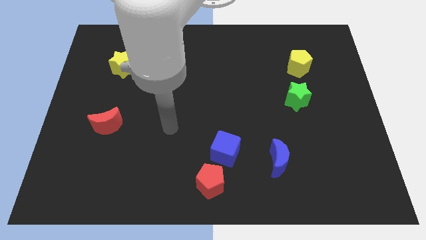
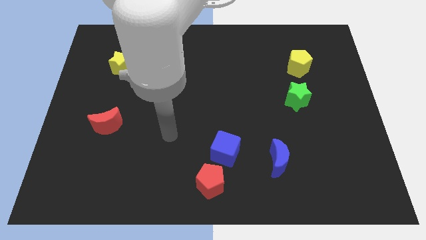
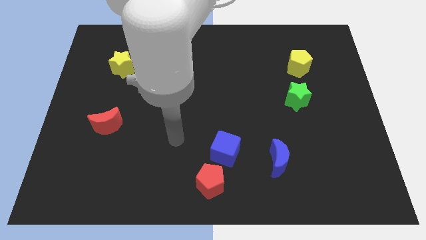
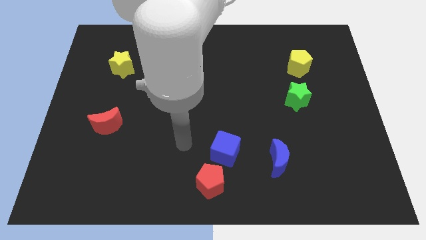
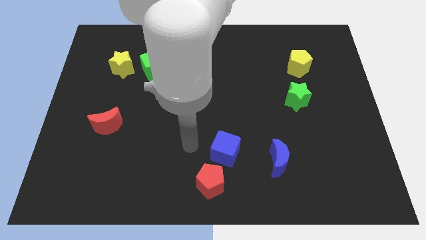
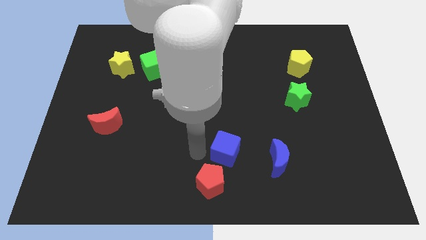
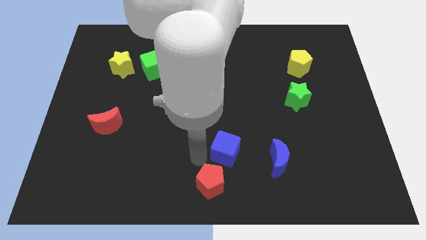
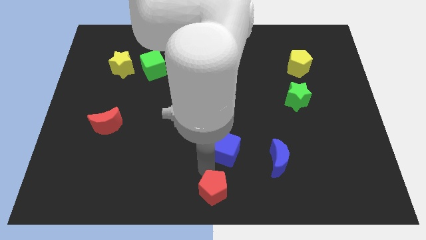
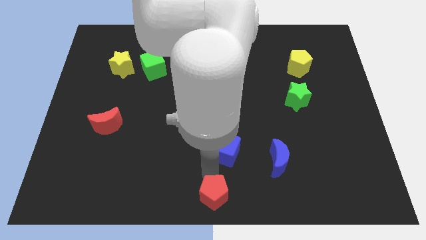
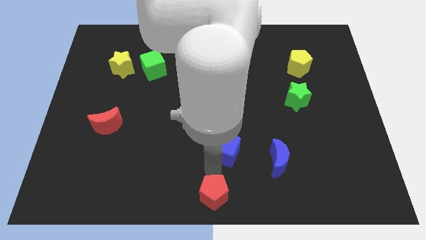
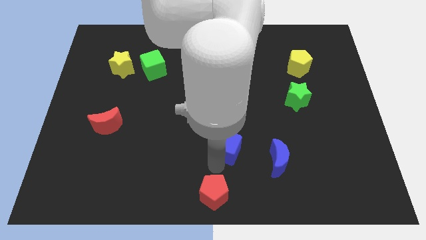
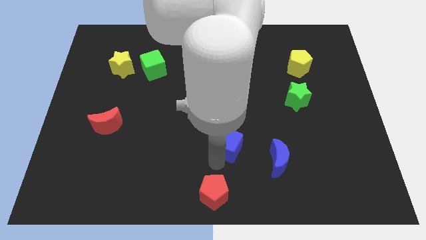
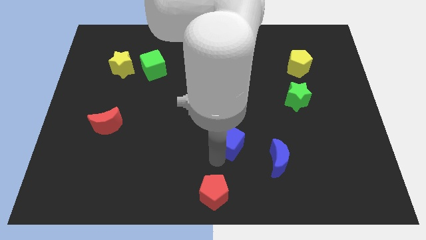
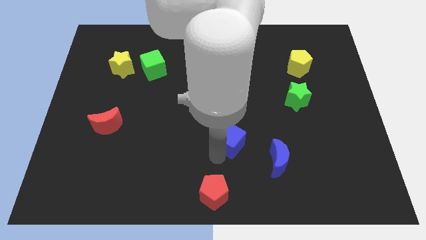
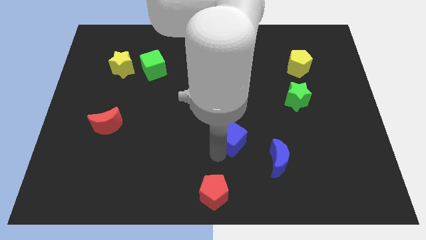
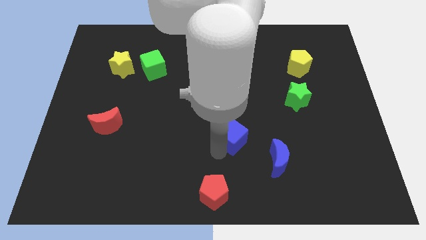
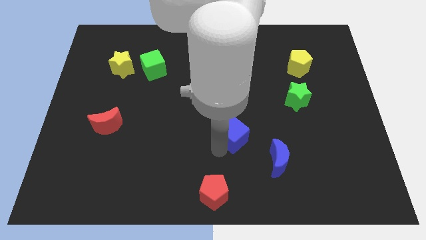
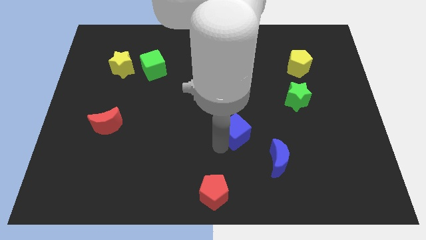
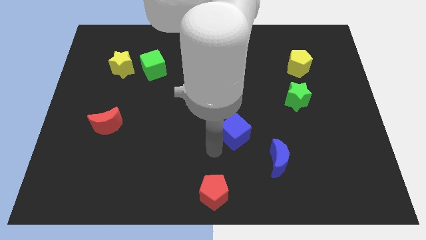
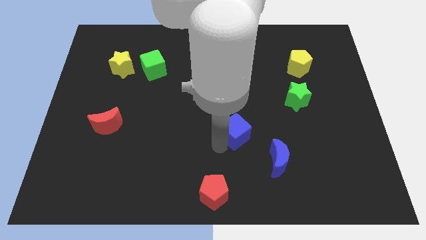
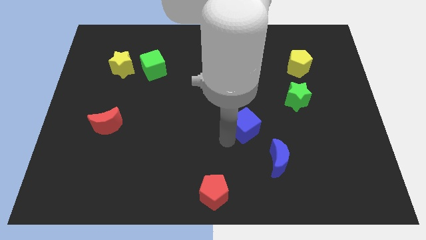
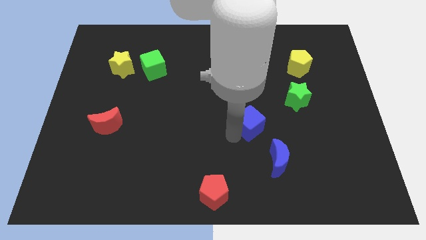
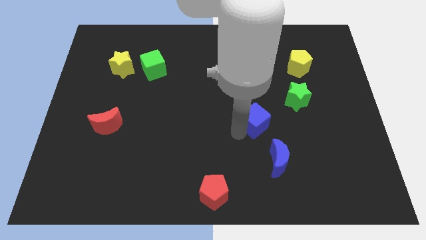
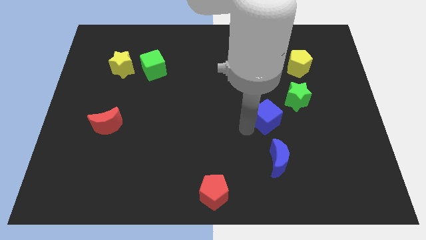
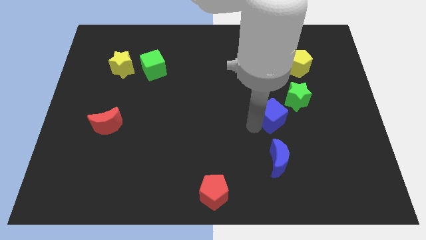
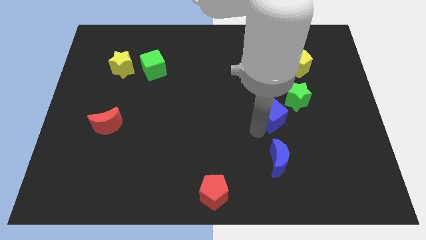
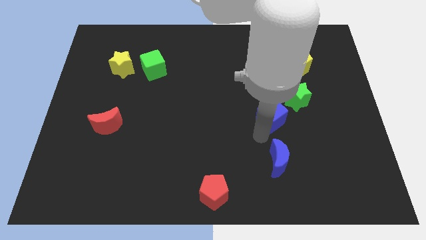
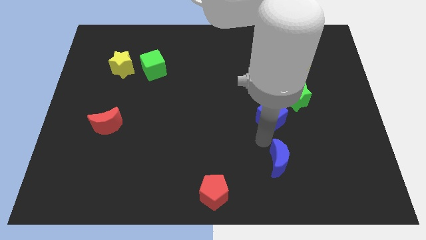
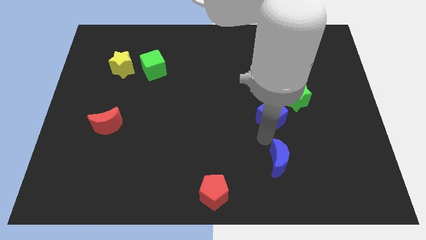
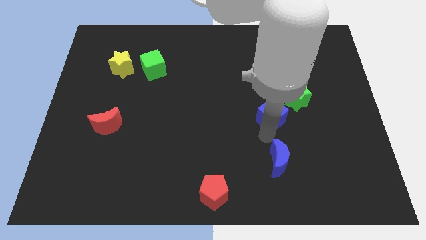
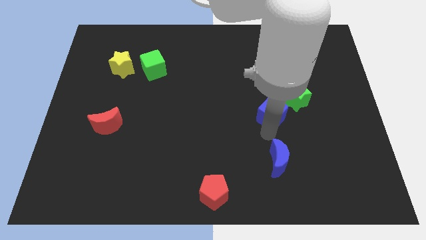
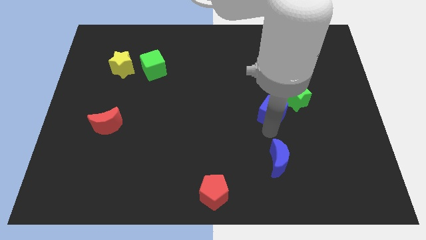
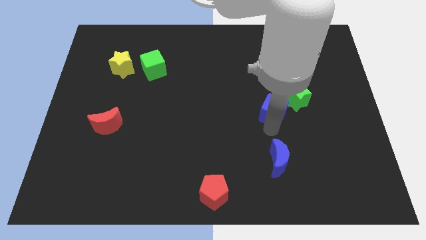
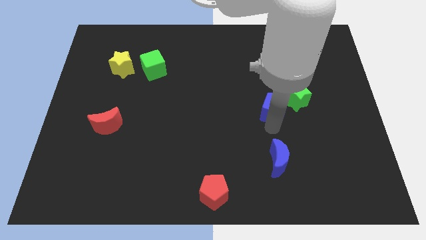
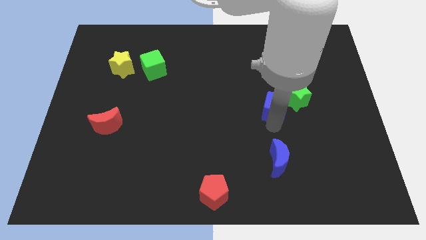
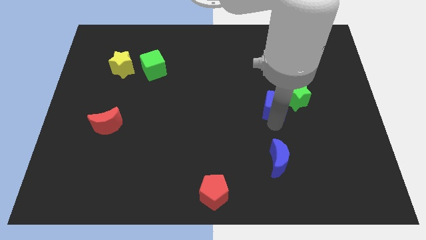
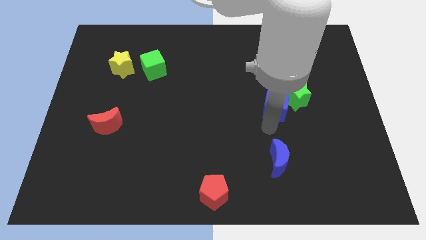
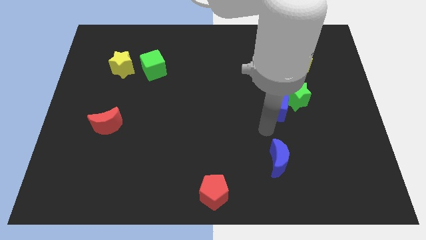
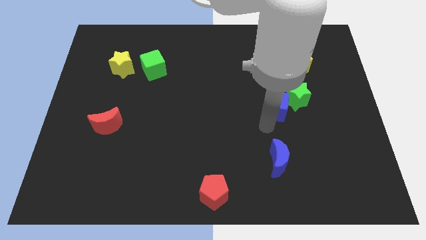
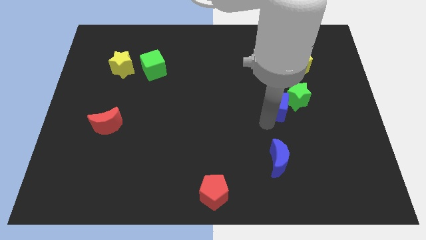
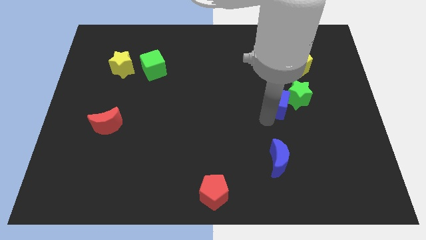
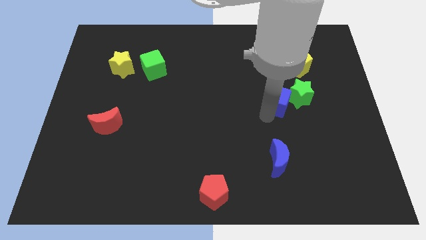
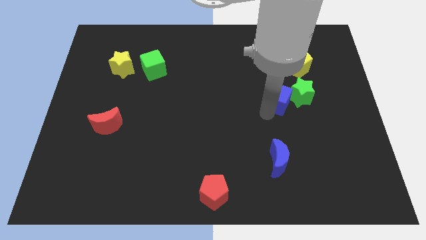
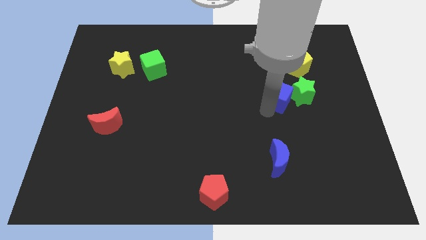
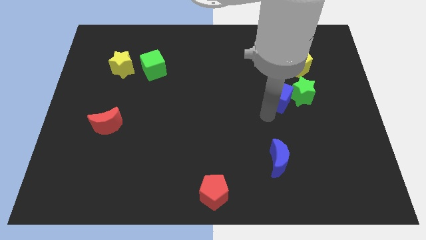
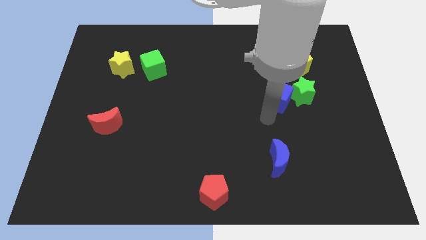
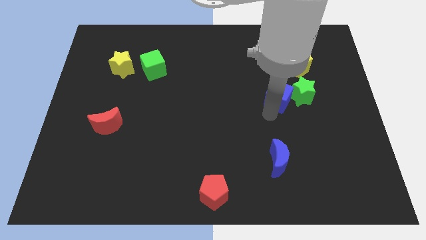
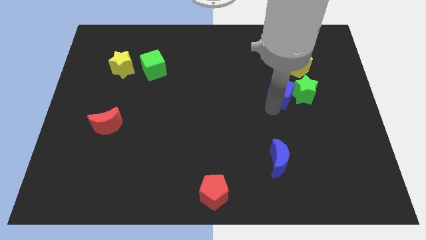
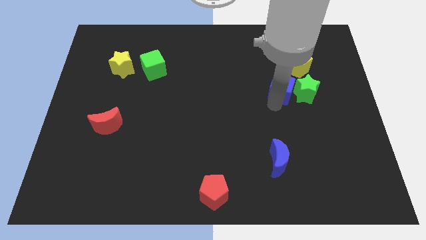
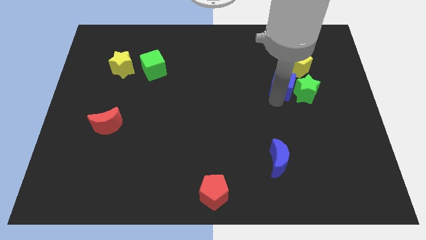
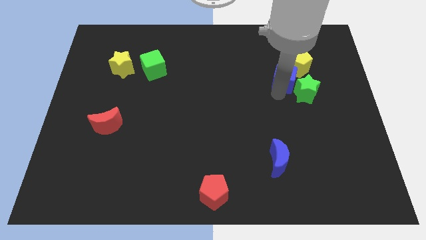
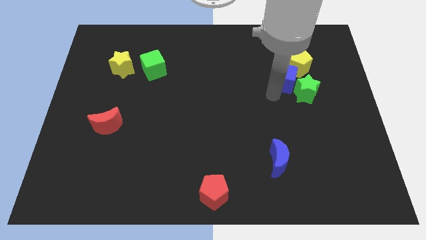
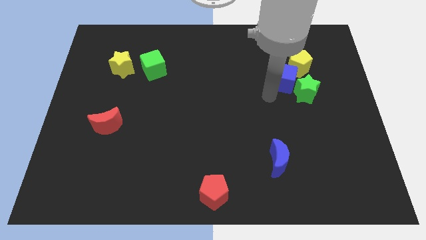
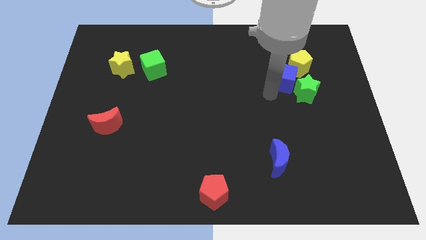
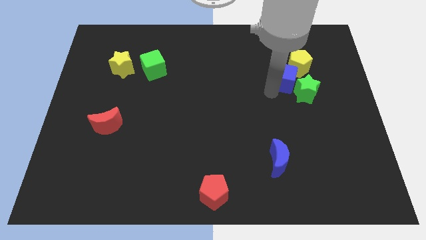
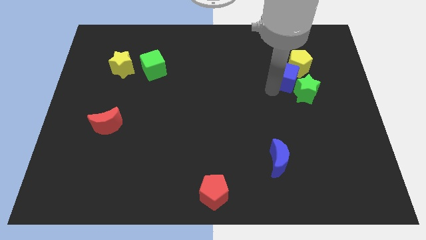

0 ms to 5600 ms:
slide the blue cube close to the yellow pentagon

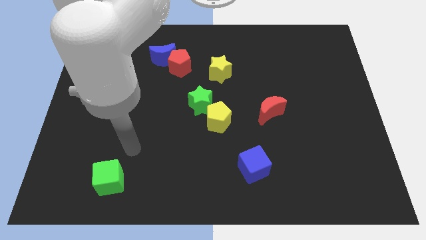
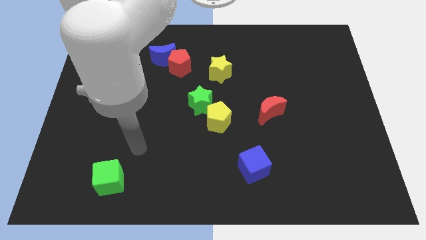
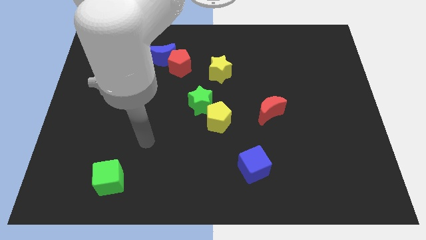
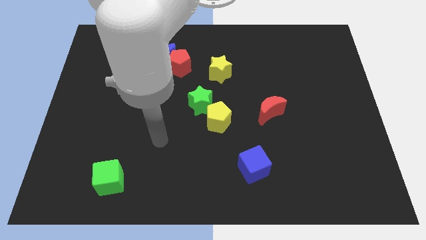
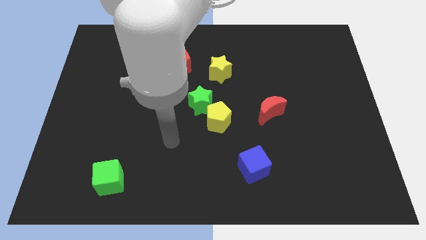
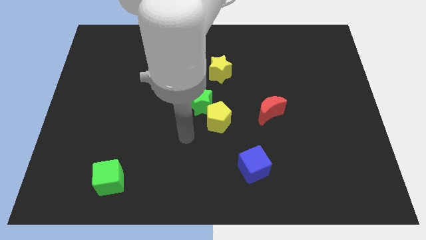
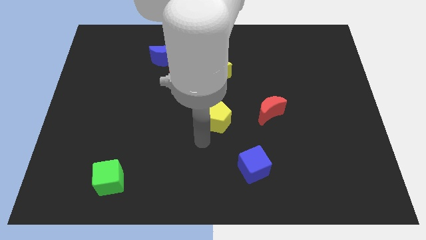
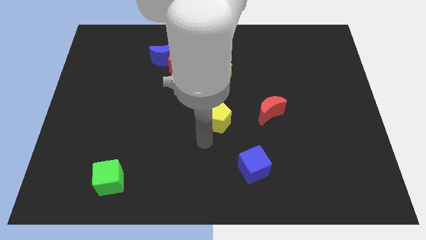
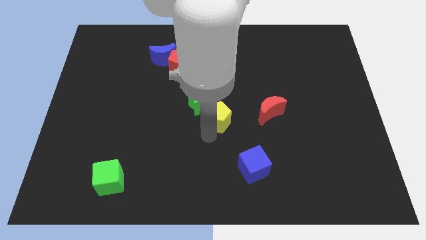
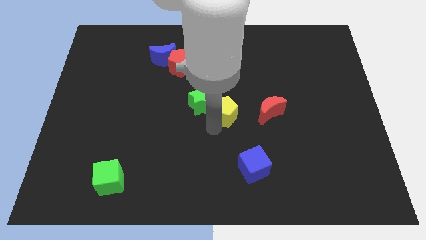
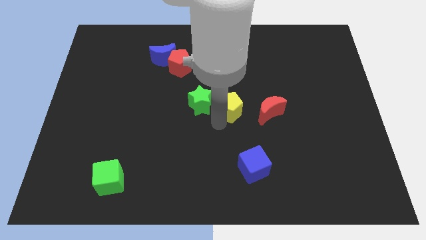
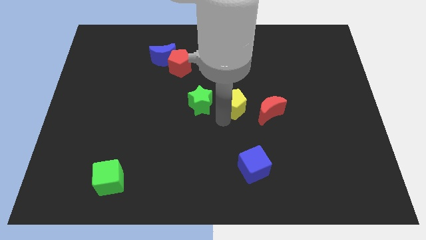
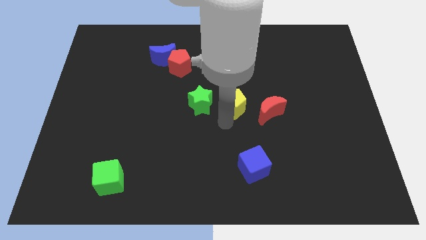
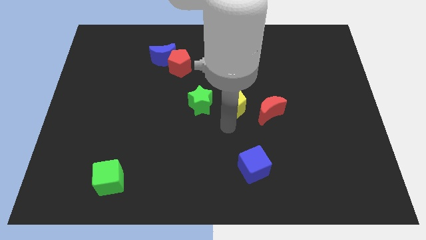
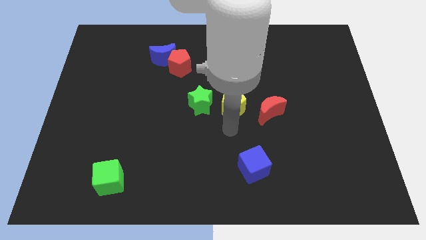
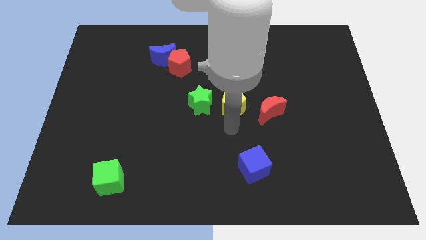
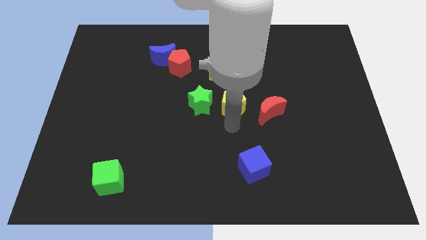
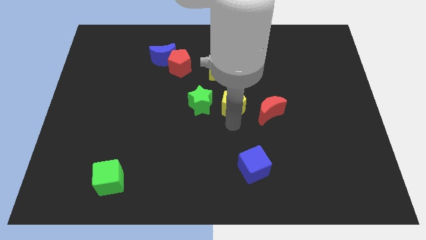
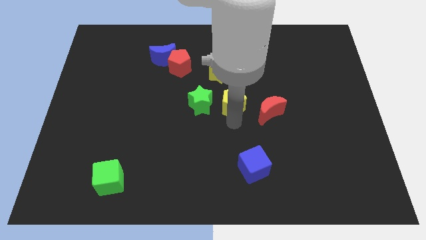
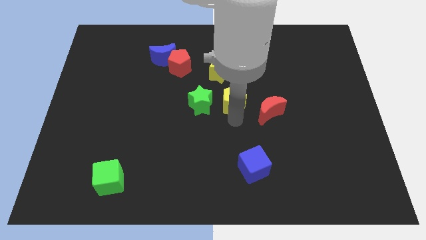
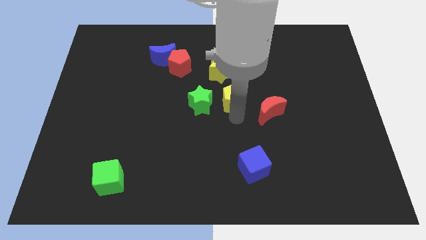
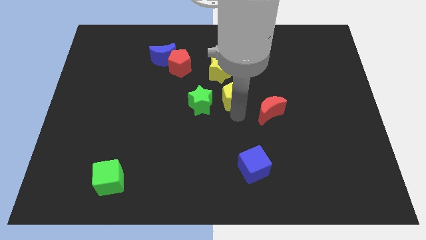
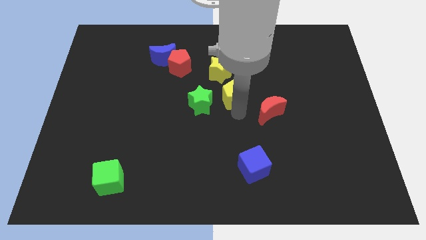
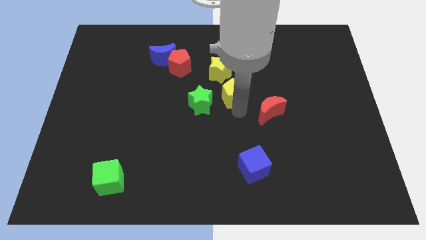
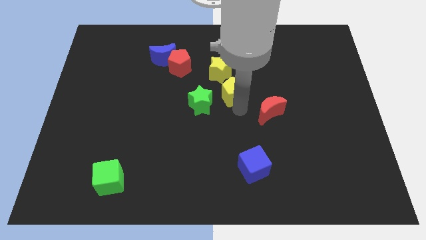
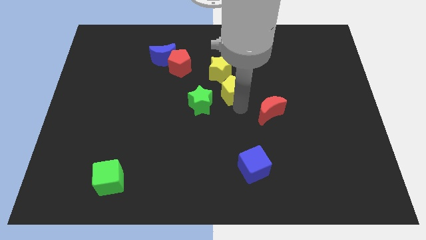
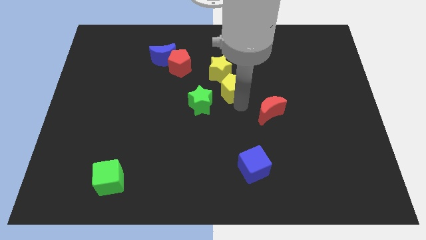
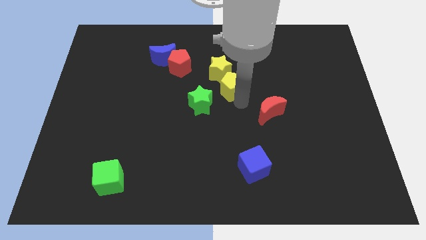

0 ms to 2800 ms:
slide the yellow pentagon to the yellow star

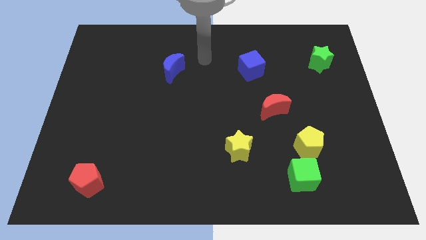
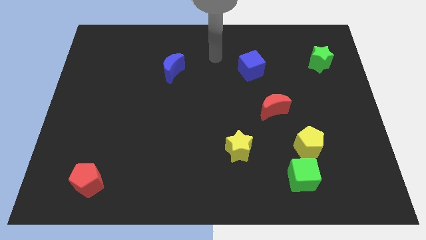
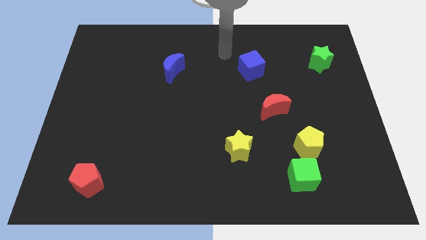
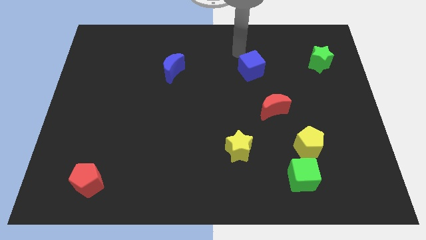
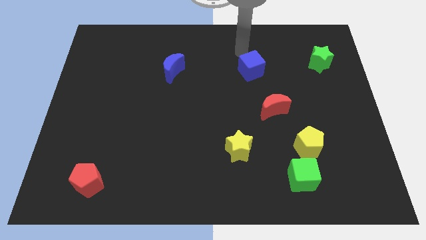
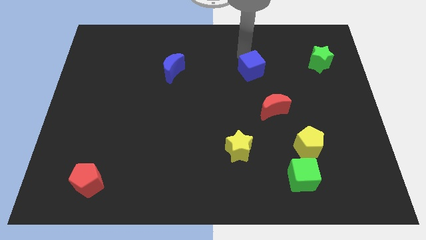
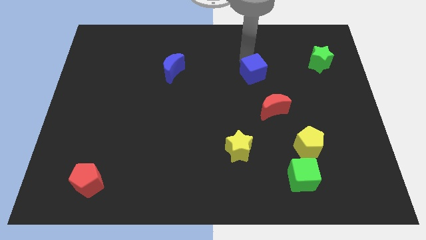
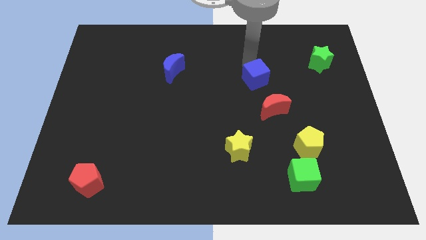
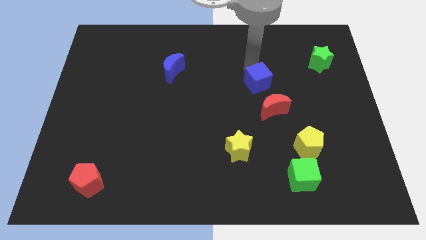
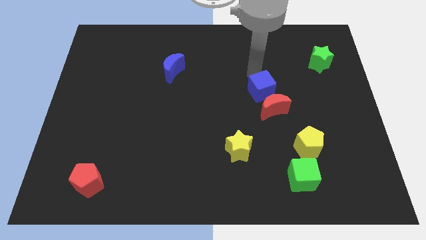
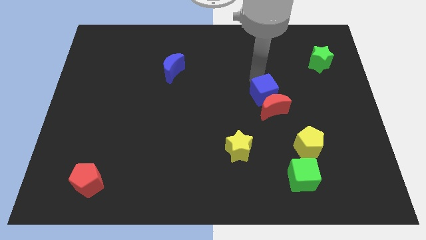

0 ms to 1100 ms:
move the blue cube to the red moon
